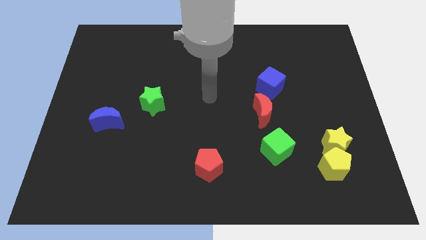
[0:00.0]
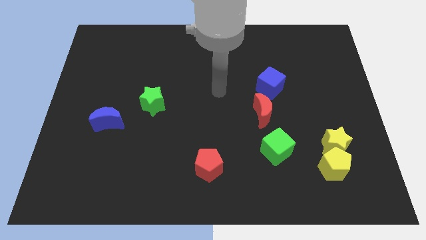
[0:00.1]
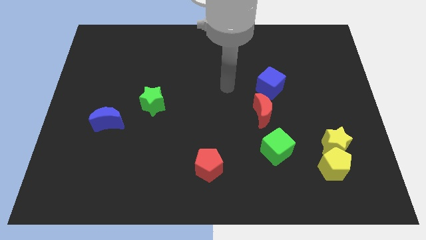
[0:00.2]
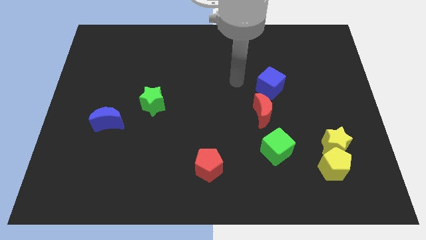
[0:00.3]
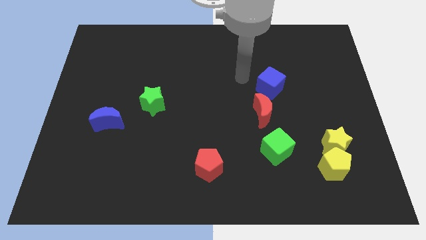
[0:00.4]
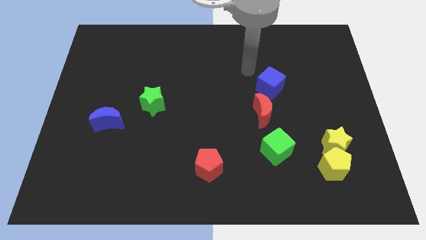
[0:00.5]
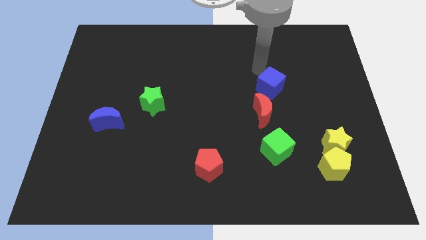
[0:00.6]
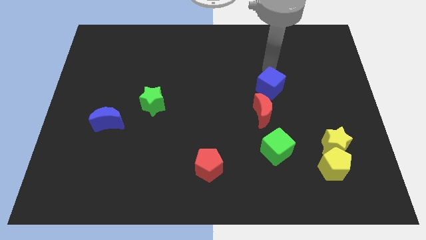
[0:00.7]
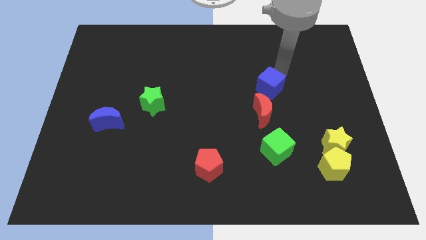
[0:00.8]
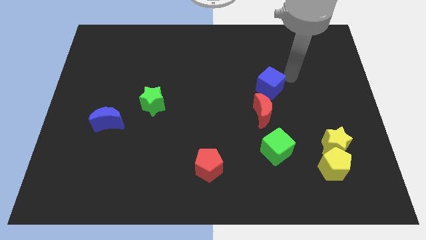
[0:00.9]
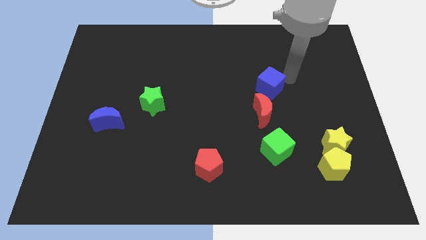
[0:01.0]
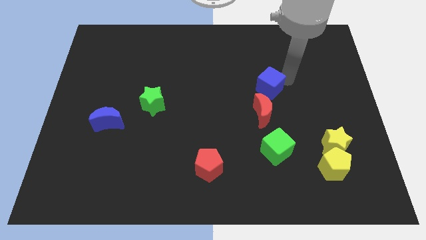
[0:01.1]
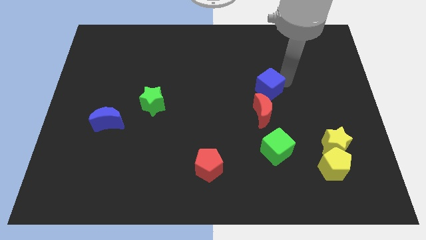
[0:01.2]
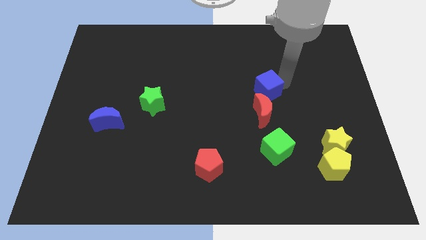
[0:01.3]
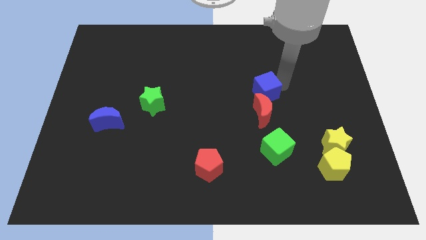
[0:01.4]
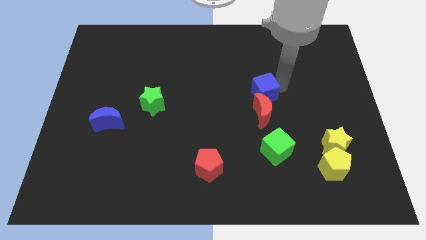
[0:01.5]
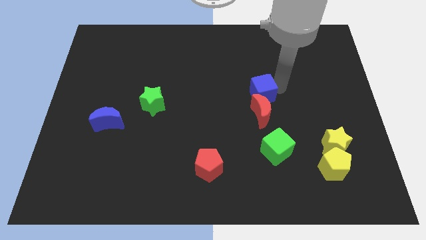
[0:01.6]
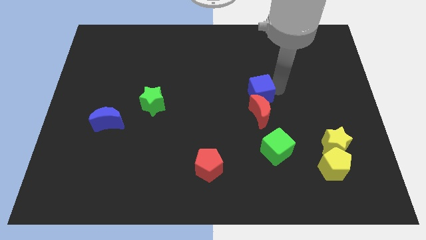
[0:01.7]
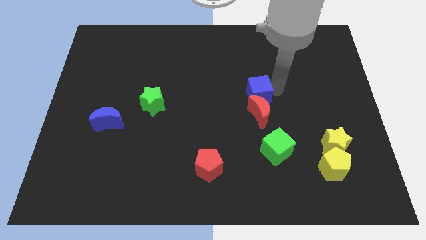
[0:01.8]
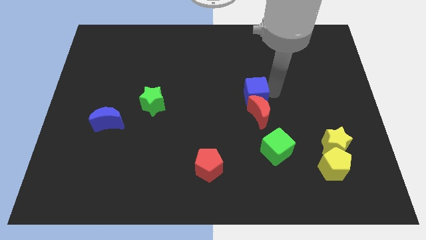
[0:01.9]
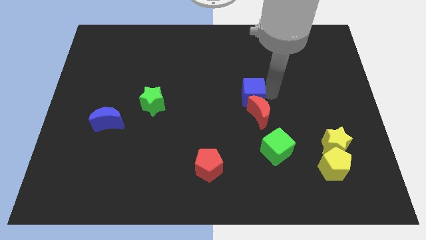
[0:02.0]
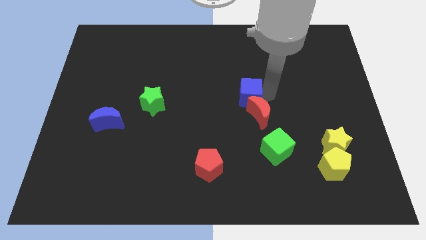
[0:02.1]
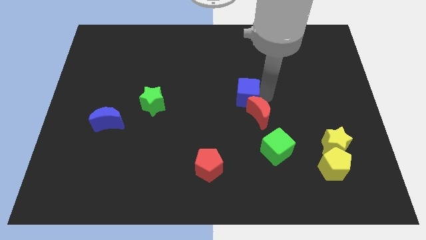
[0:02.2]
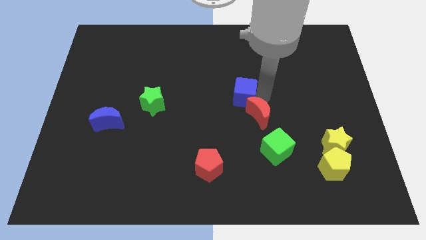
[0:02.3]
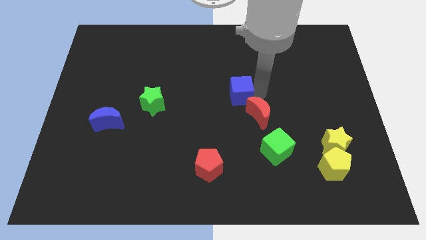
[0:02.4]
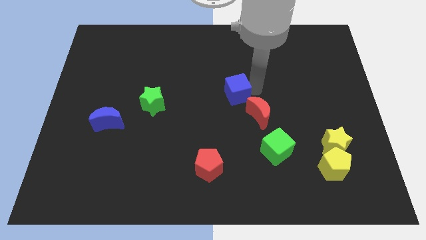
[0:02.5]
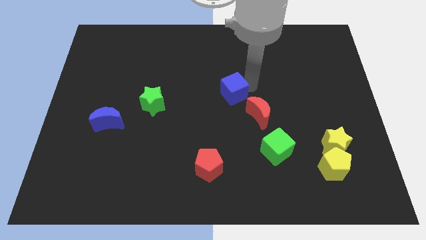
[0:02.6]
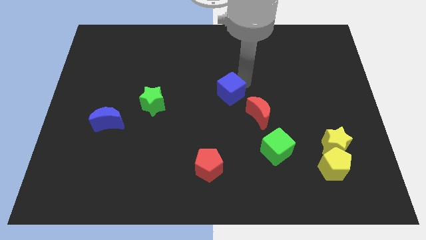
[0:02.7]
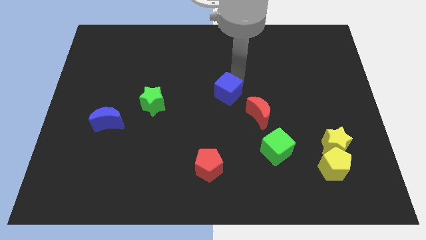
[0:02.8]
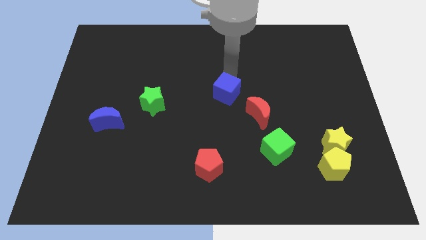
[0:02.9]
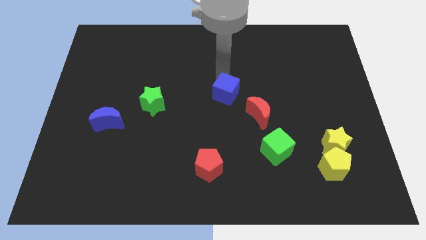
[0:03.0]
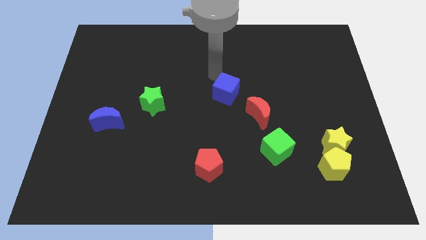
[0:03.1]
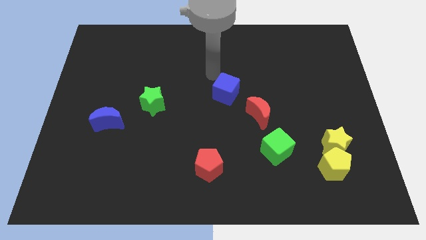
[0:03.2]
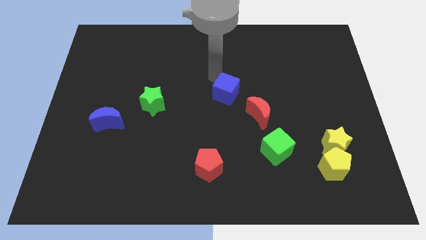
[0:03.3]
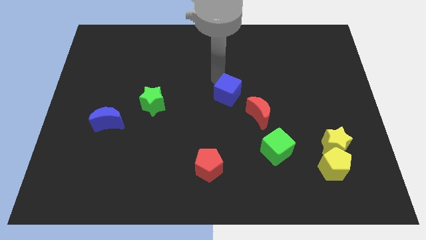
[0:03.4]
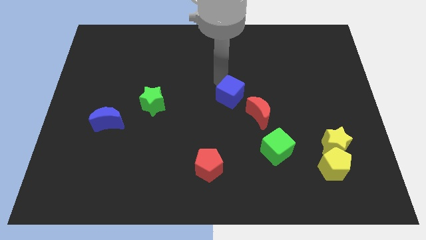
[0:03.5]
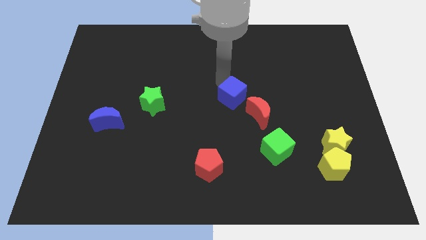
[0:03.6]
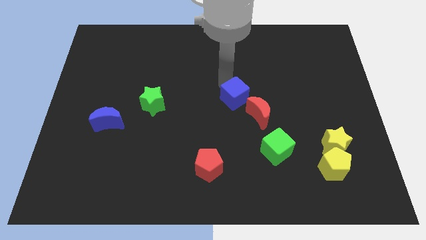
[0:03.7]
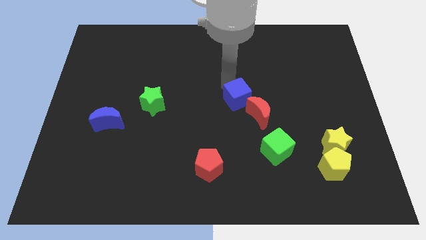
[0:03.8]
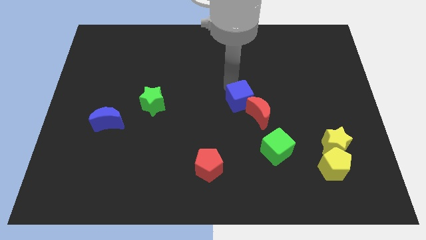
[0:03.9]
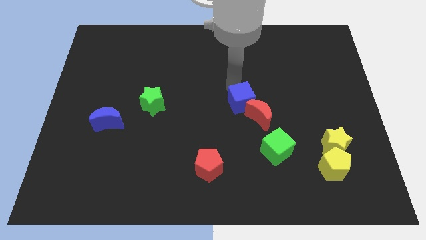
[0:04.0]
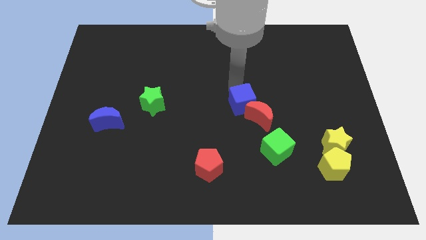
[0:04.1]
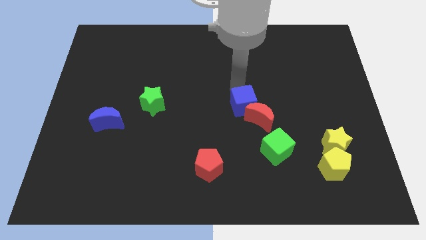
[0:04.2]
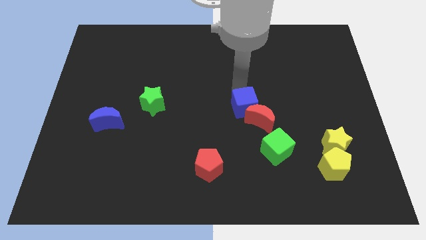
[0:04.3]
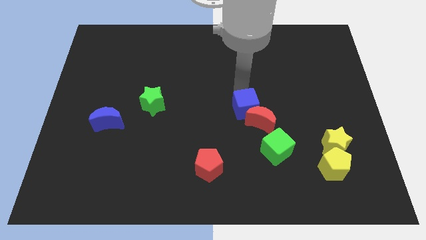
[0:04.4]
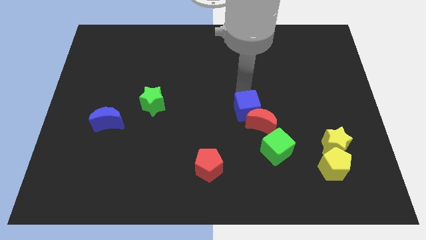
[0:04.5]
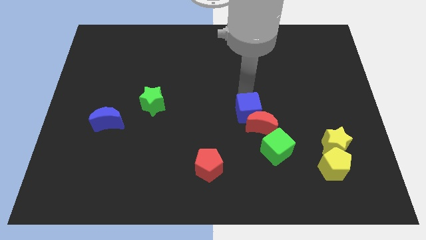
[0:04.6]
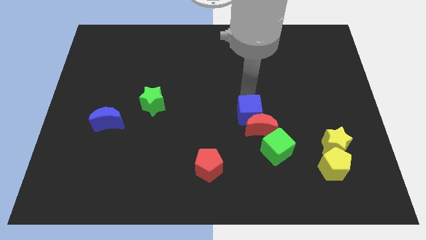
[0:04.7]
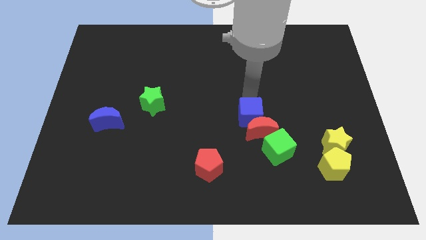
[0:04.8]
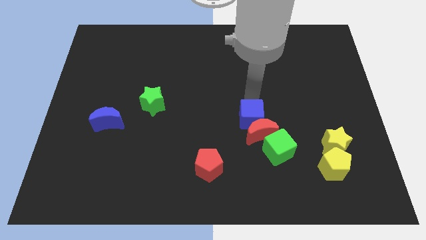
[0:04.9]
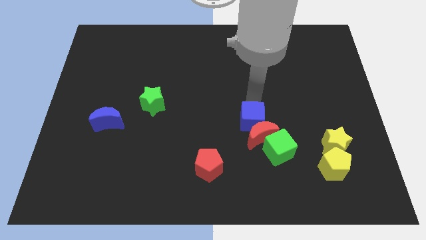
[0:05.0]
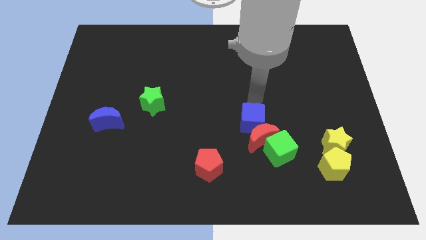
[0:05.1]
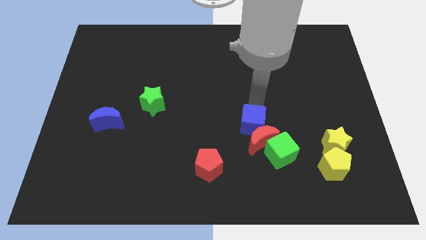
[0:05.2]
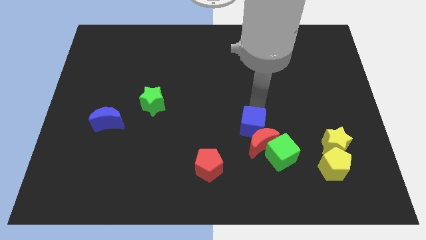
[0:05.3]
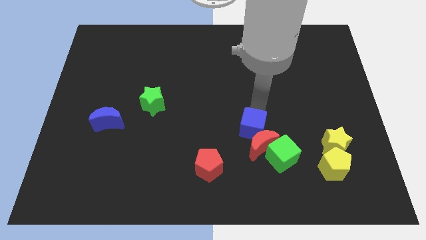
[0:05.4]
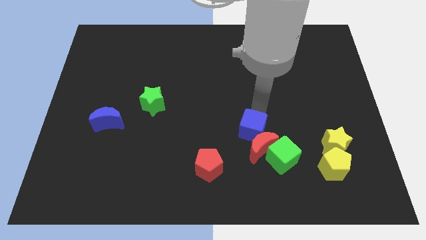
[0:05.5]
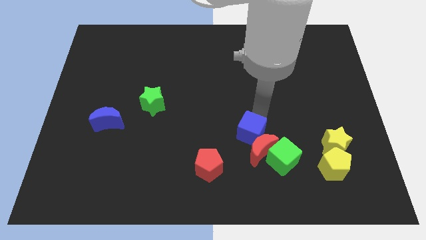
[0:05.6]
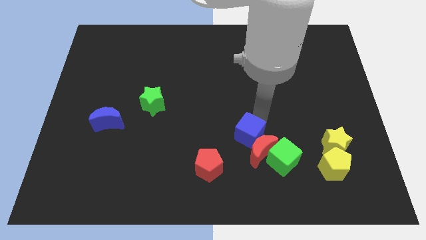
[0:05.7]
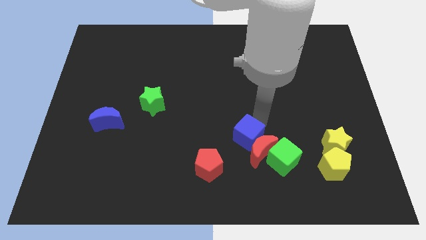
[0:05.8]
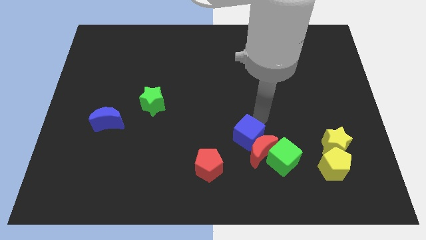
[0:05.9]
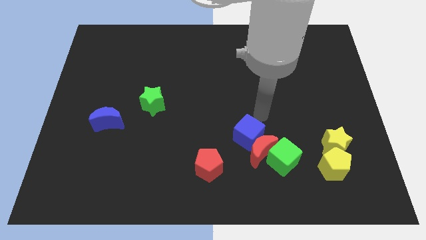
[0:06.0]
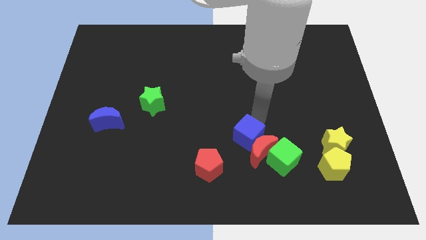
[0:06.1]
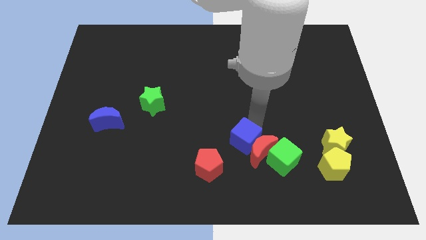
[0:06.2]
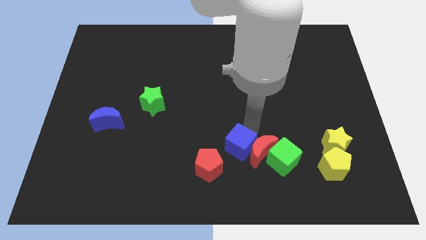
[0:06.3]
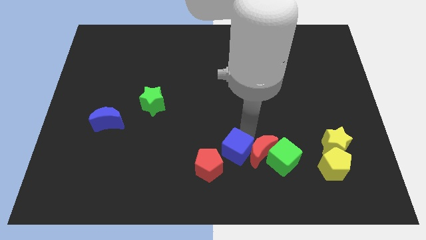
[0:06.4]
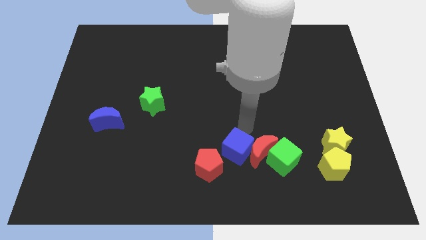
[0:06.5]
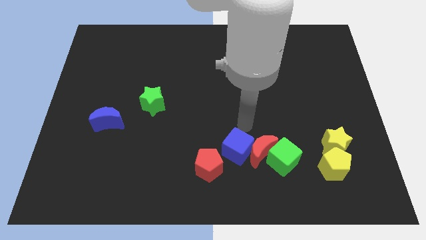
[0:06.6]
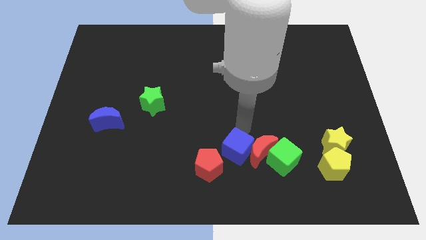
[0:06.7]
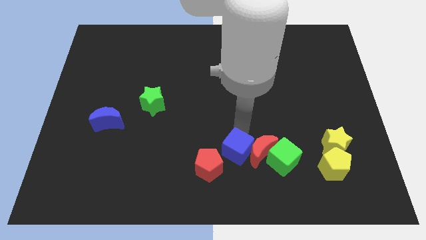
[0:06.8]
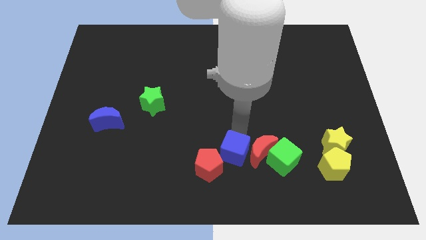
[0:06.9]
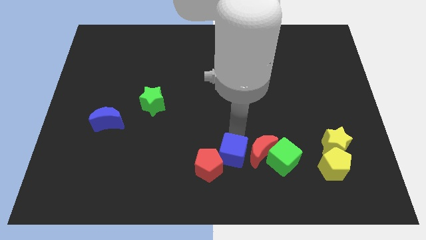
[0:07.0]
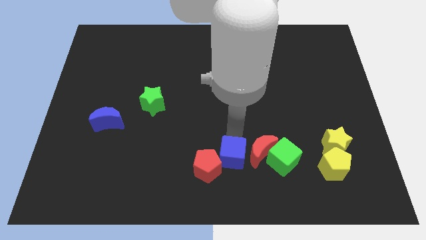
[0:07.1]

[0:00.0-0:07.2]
put the blue cube to the bottom side
